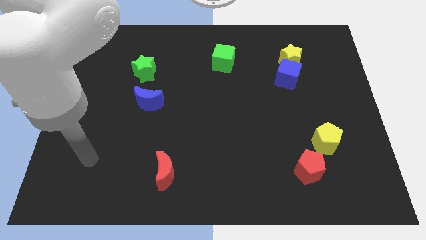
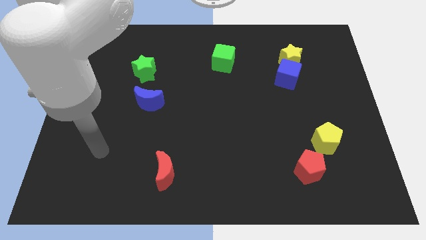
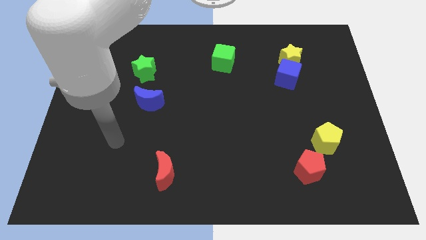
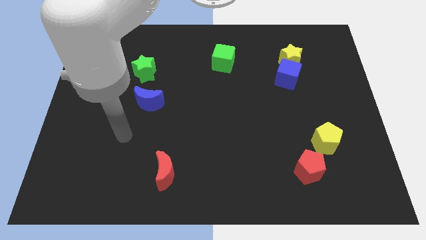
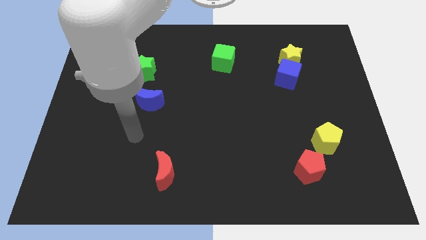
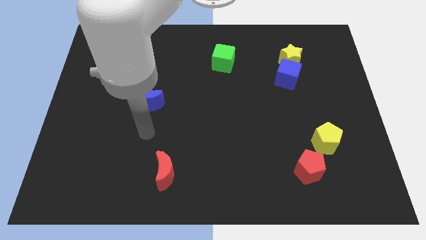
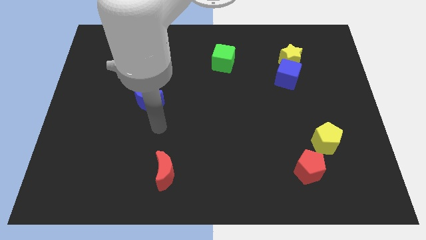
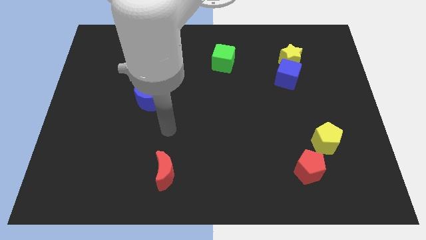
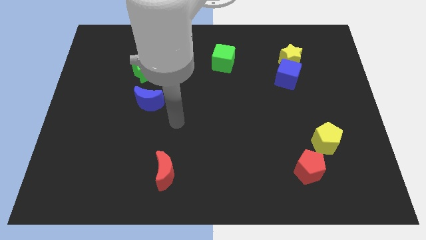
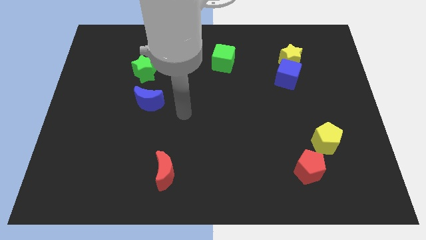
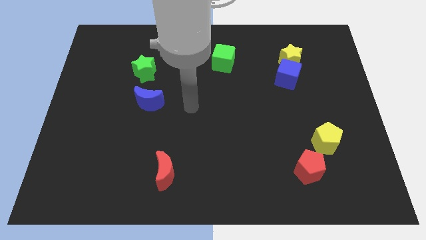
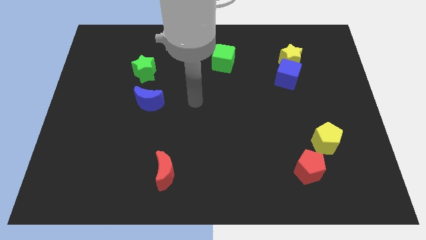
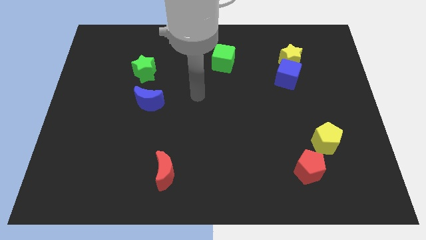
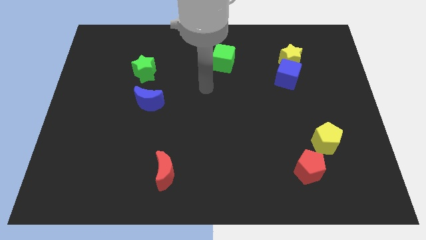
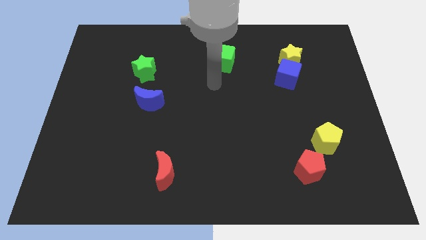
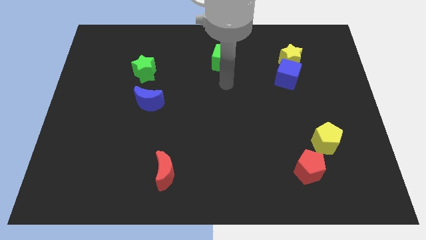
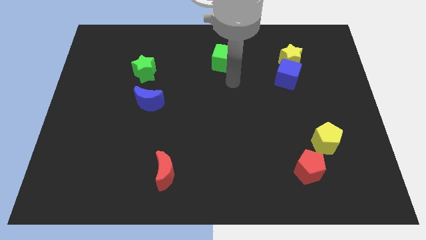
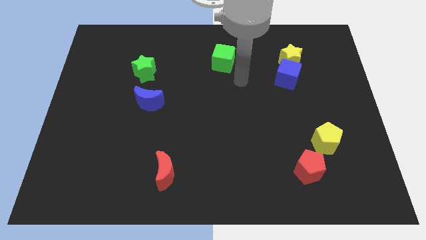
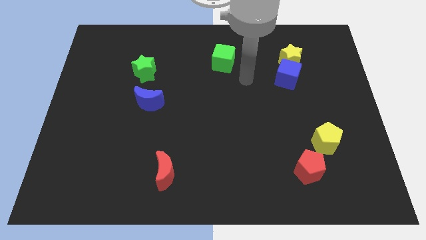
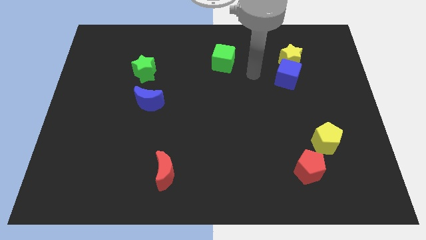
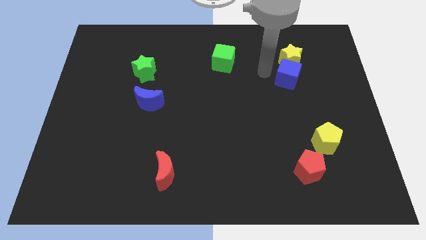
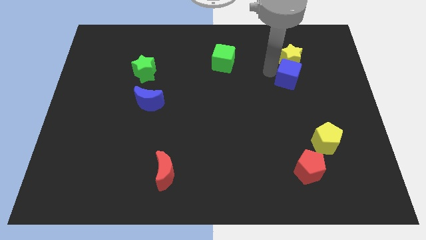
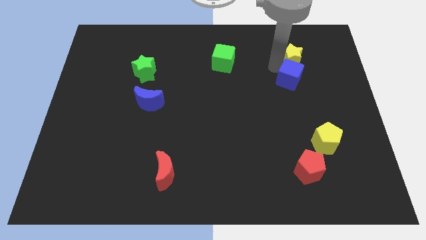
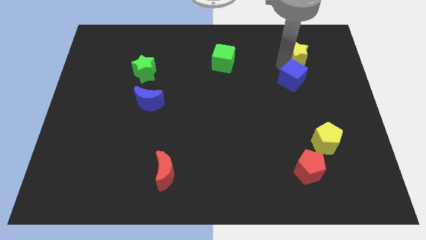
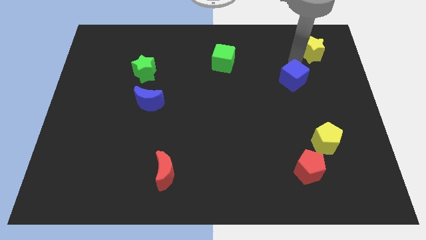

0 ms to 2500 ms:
pull the blue cube apart from the yellow star

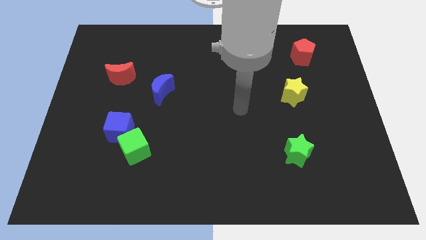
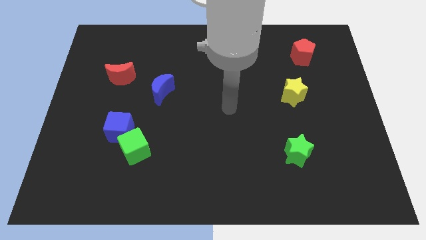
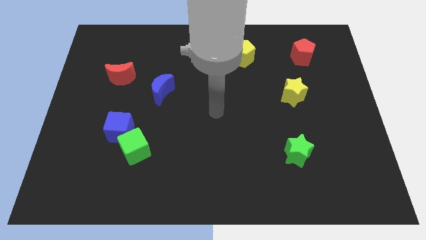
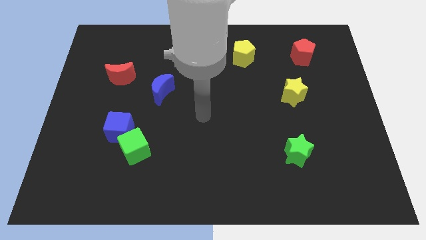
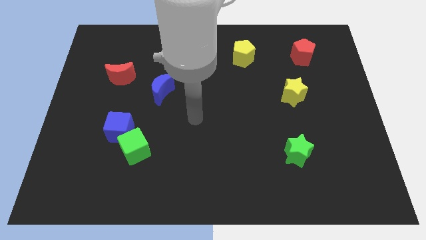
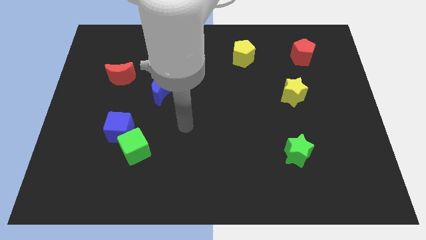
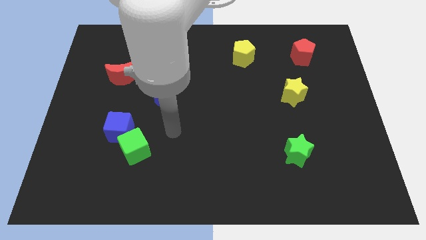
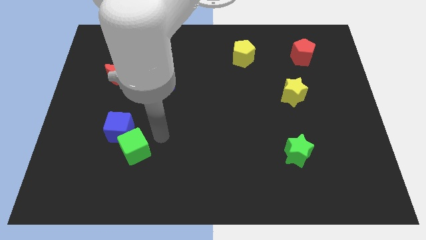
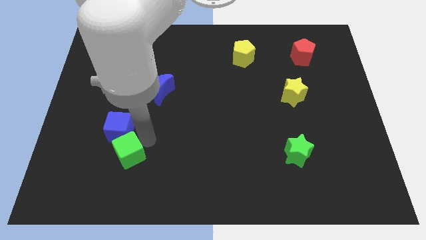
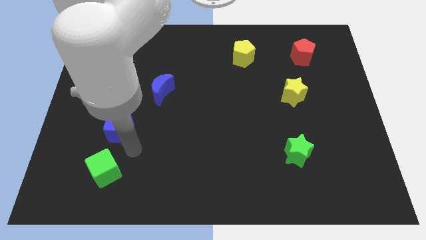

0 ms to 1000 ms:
pull the blue cube apart from the green cube

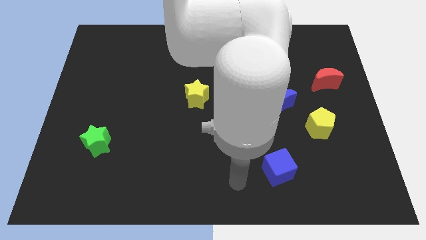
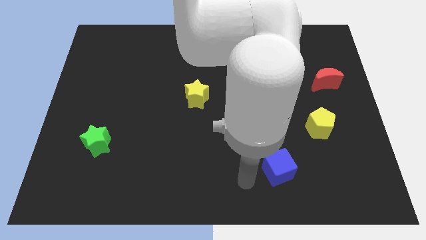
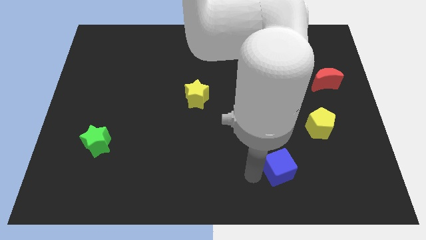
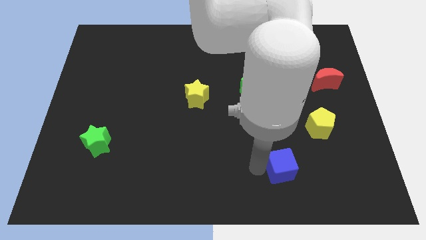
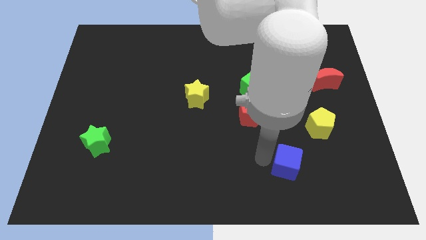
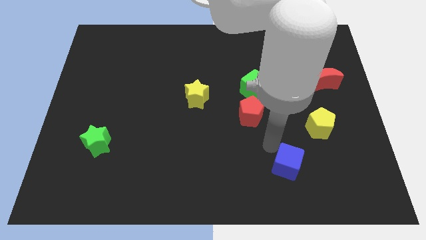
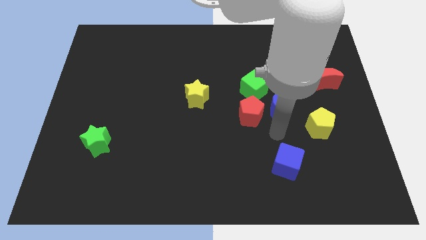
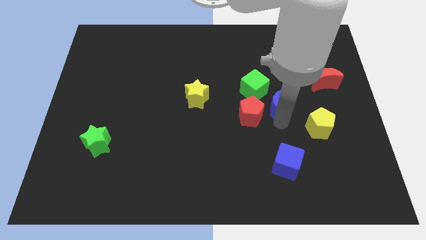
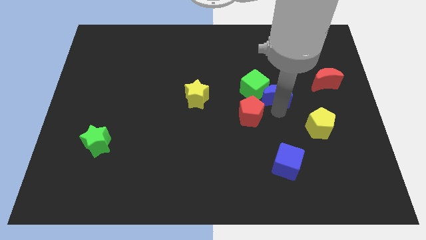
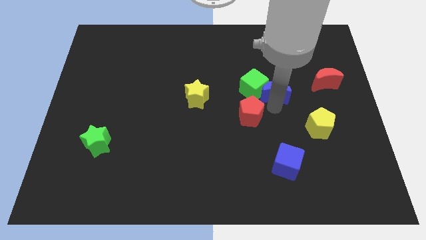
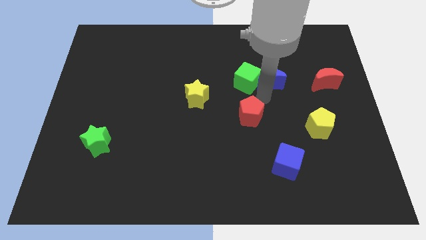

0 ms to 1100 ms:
separate the red pentagon from the blue moon and green cube

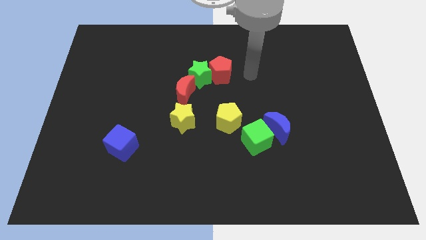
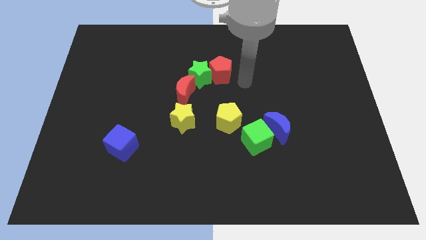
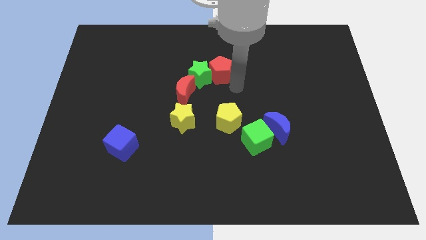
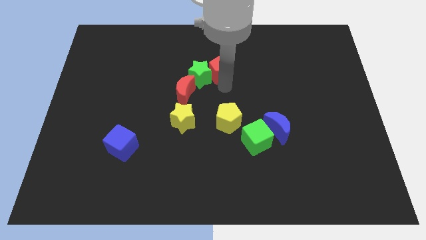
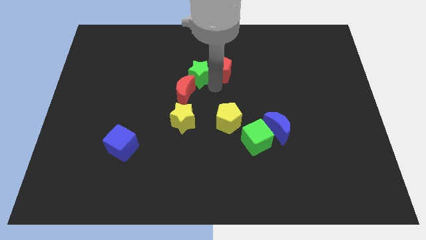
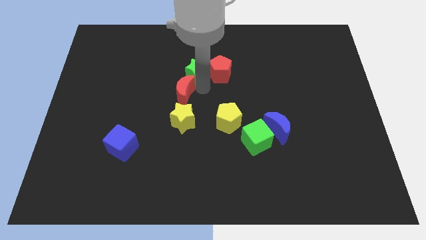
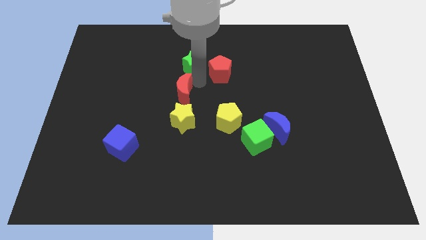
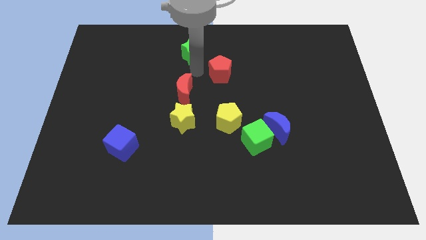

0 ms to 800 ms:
move the red pentagon away from the green star

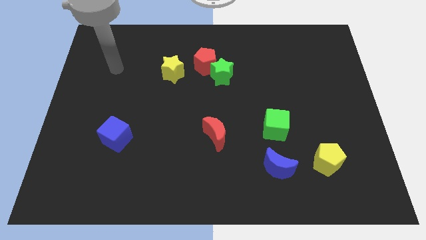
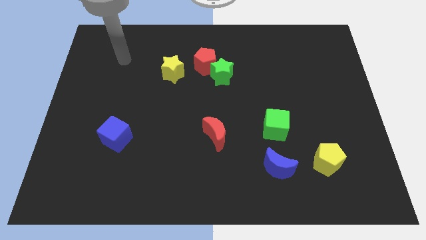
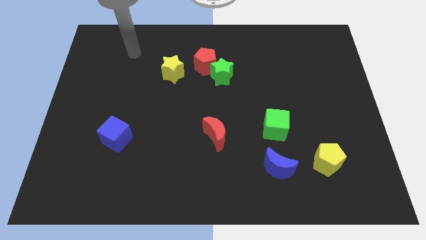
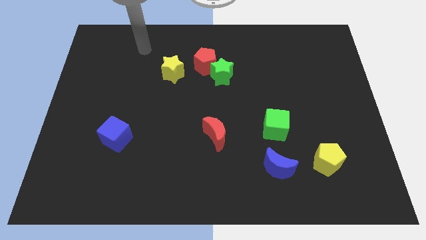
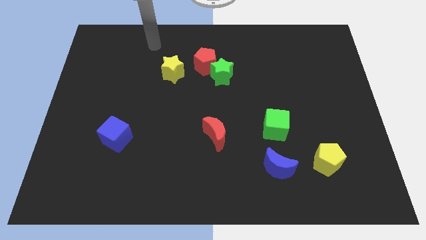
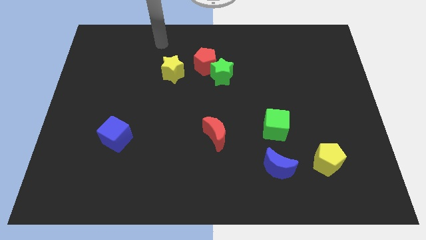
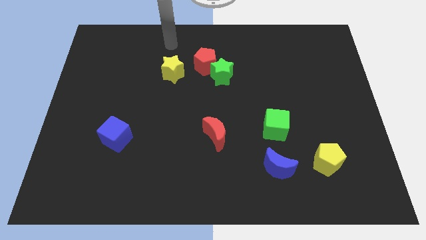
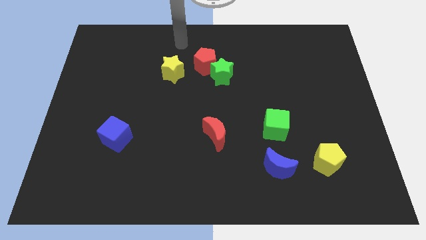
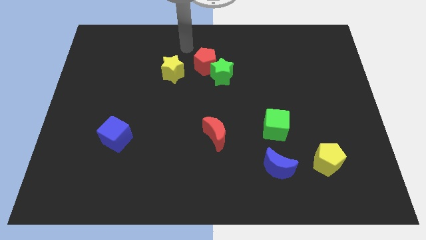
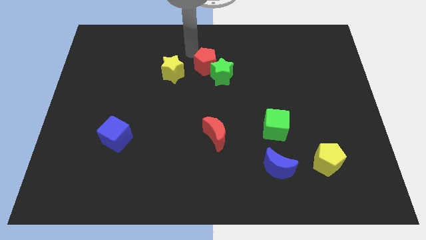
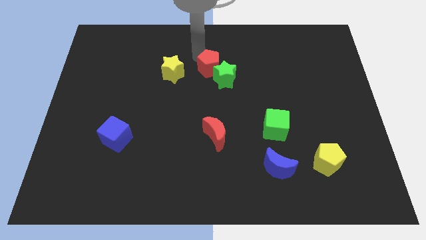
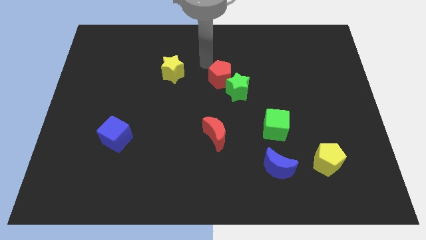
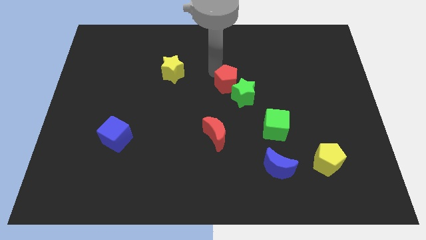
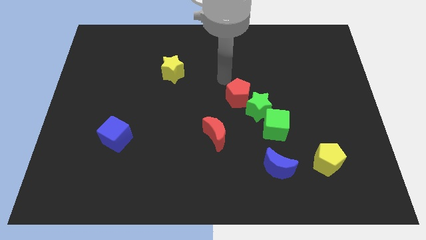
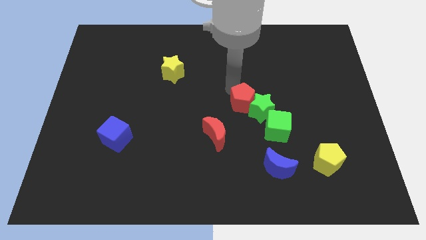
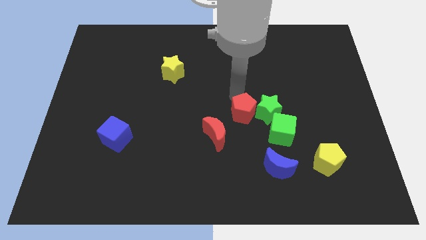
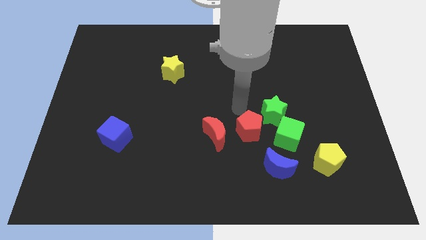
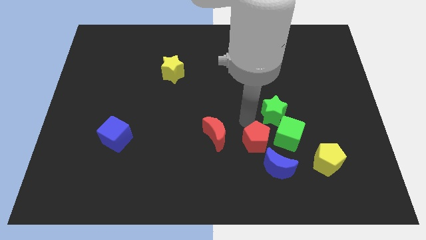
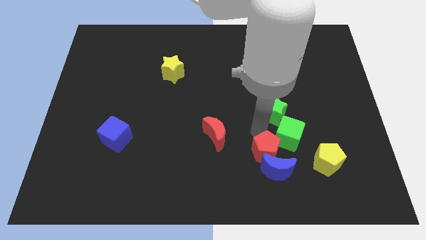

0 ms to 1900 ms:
pull the green star apart from the red pentagon

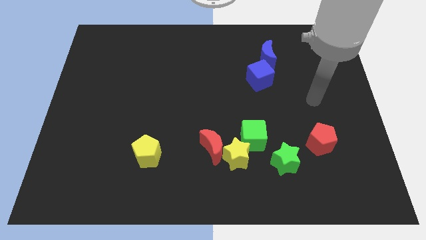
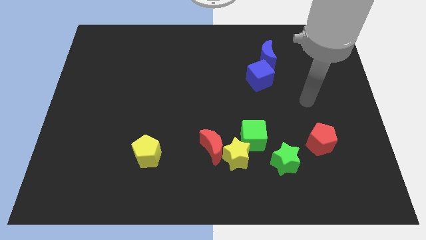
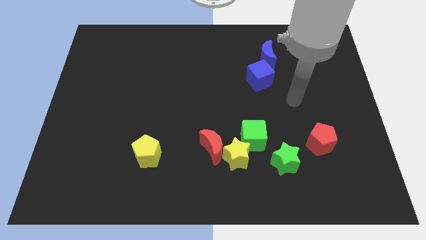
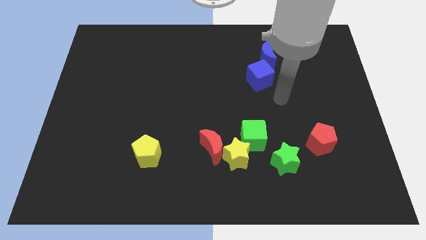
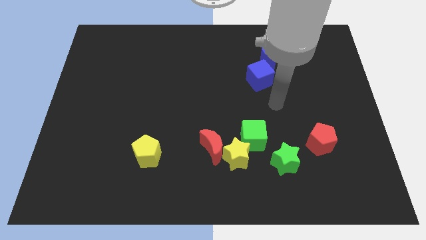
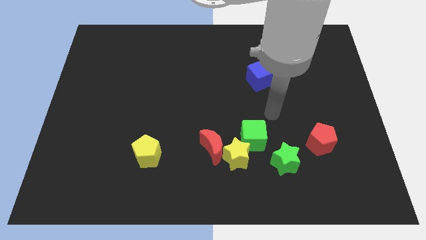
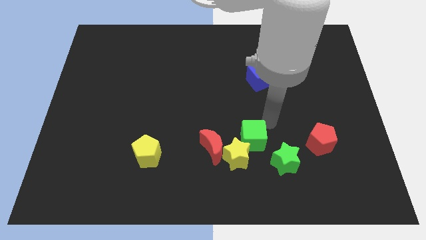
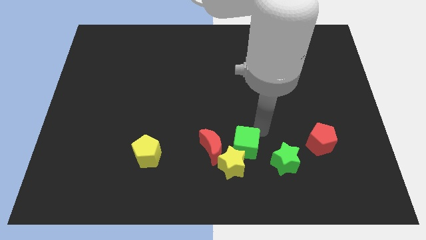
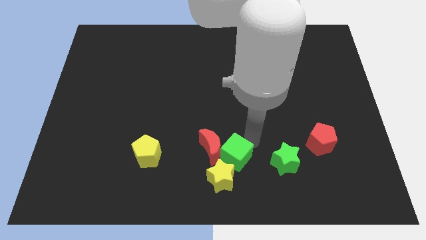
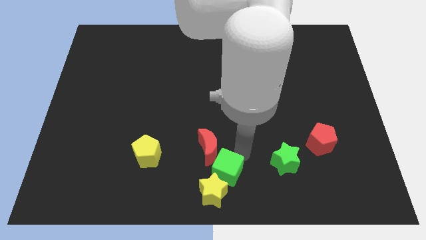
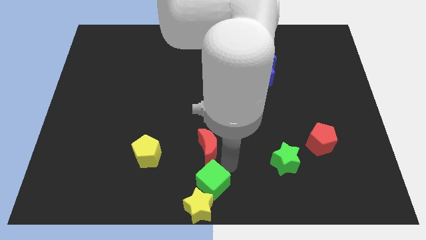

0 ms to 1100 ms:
pull the red moon apart from the yellow star and green cube

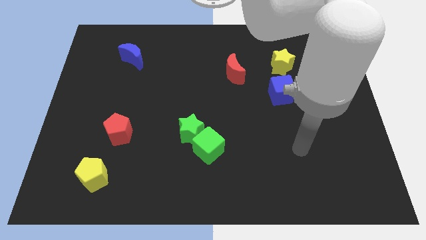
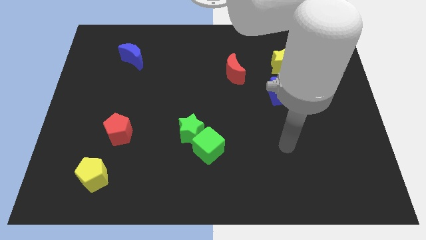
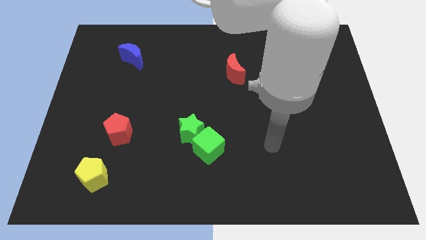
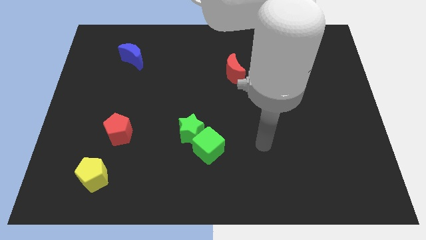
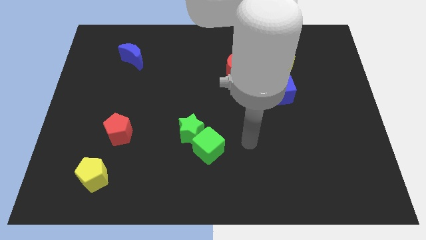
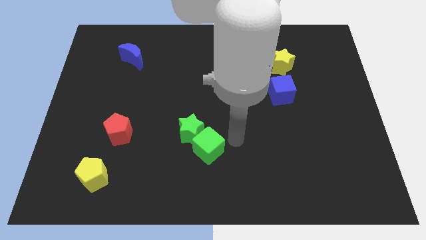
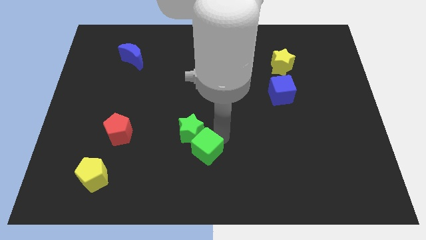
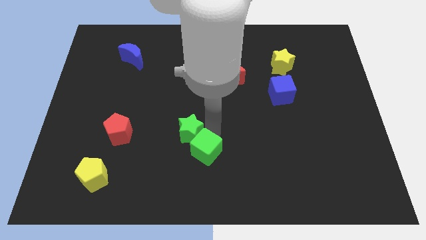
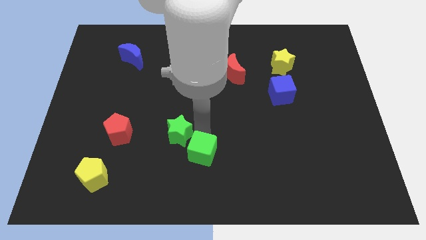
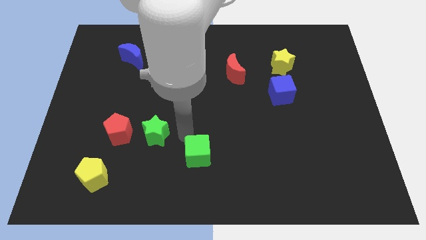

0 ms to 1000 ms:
move the green cube away from the green star
